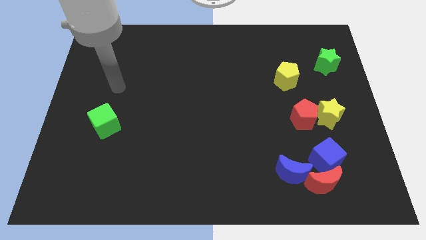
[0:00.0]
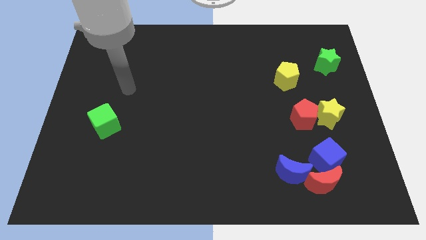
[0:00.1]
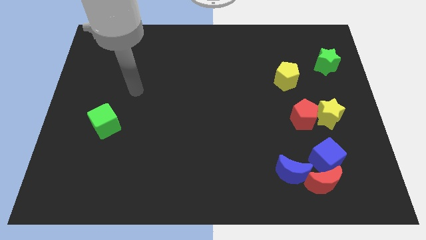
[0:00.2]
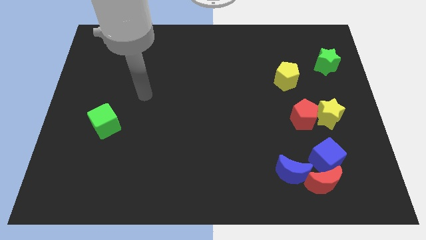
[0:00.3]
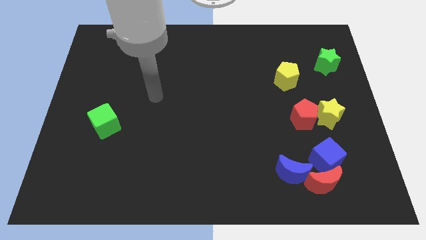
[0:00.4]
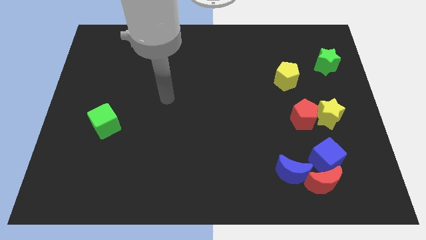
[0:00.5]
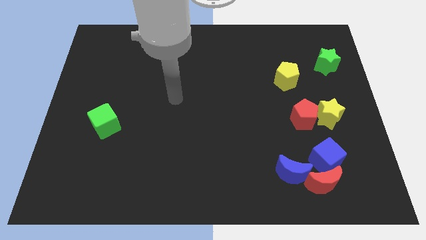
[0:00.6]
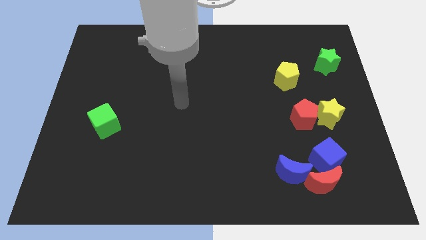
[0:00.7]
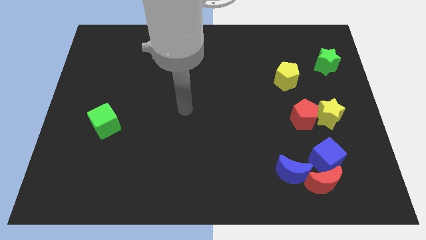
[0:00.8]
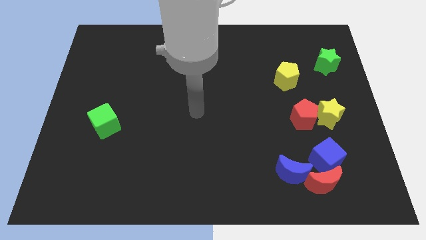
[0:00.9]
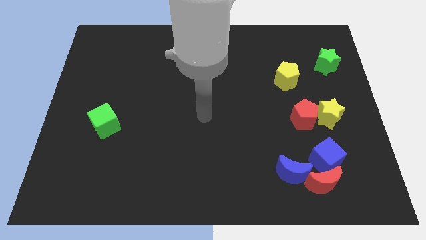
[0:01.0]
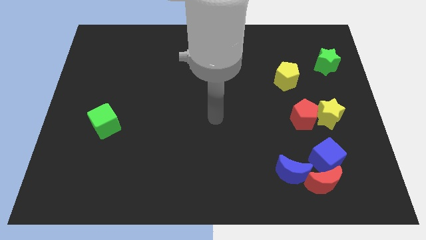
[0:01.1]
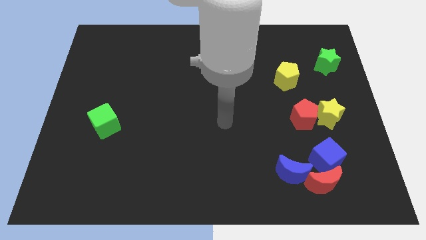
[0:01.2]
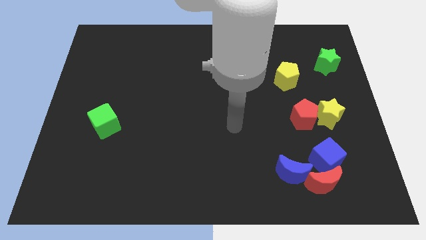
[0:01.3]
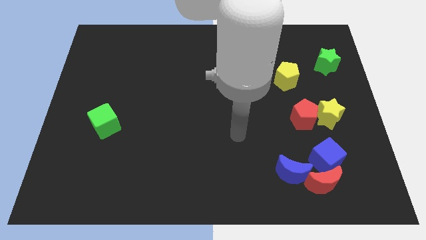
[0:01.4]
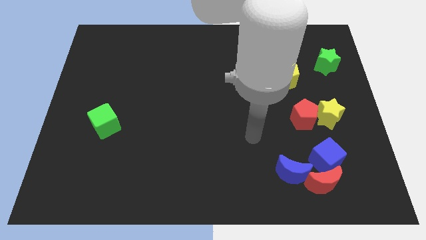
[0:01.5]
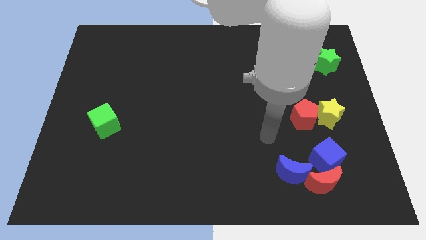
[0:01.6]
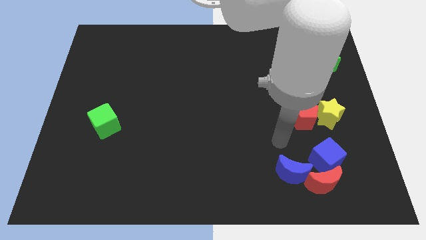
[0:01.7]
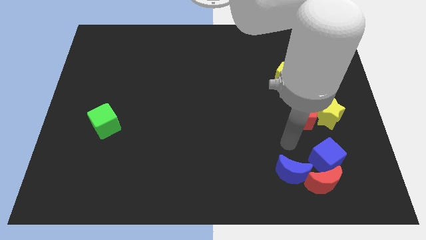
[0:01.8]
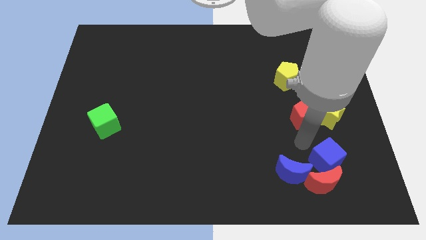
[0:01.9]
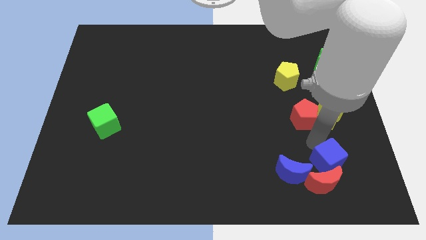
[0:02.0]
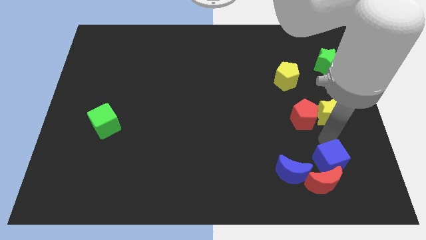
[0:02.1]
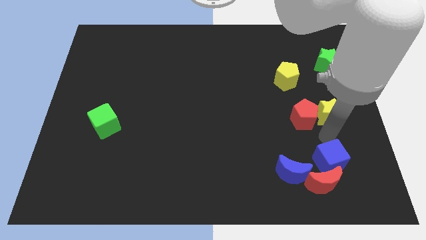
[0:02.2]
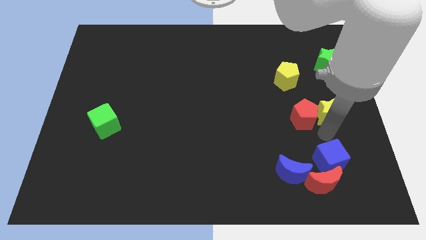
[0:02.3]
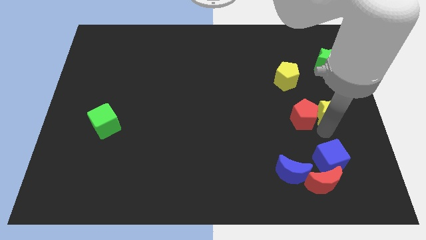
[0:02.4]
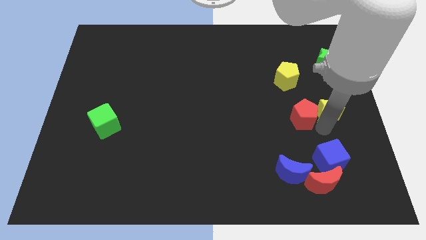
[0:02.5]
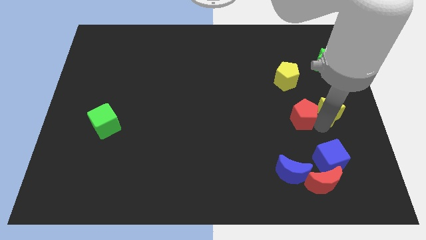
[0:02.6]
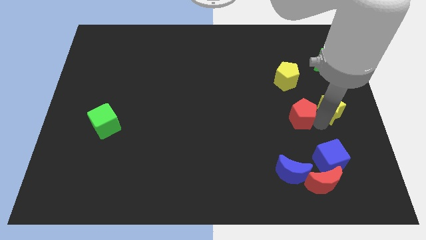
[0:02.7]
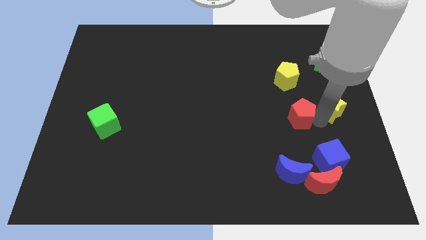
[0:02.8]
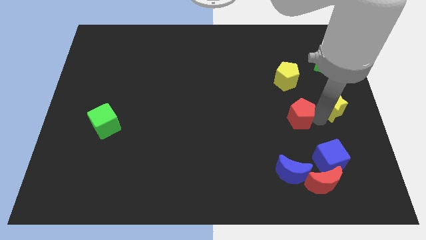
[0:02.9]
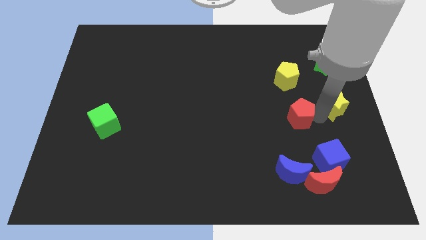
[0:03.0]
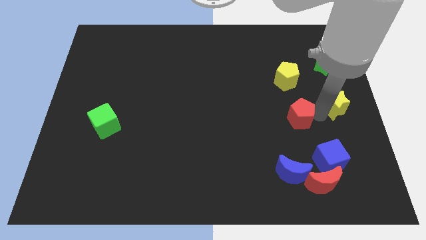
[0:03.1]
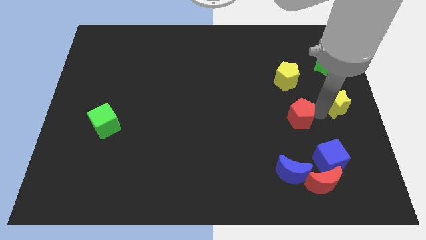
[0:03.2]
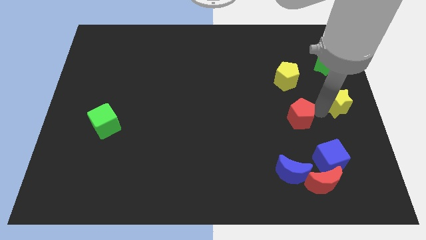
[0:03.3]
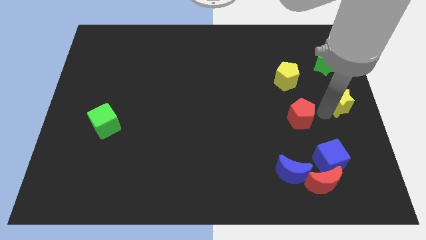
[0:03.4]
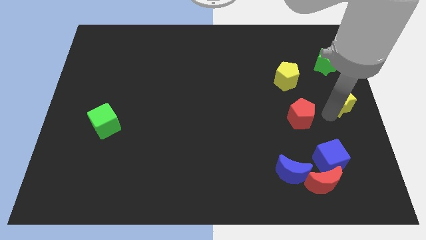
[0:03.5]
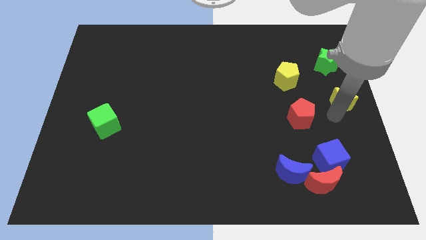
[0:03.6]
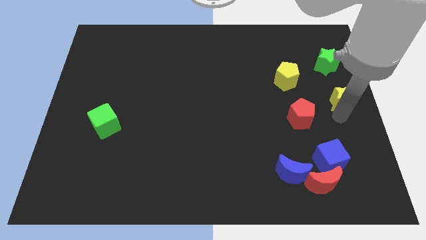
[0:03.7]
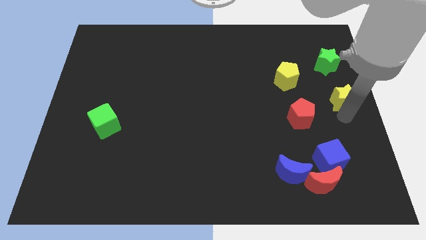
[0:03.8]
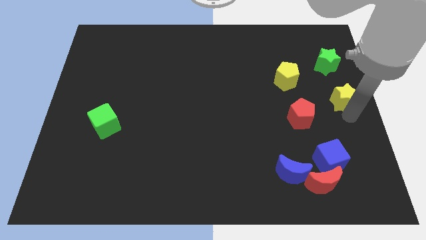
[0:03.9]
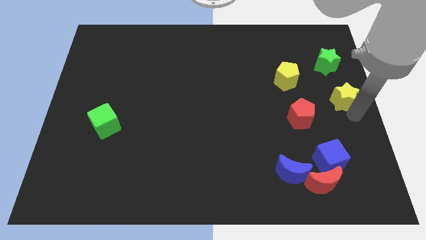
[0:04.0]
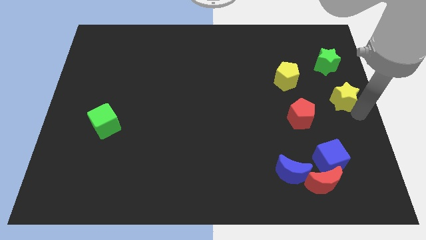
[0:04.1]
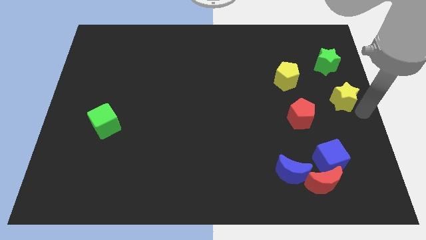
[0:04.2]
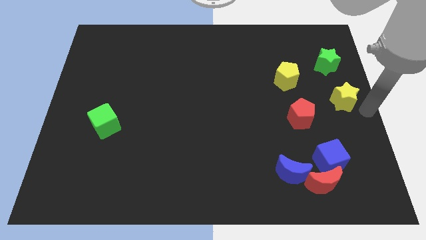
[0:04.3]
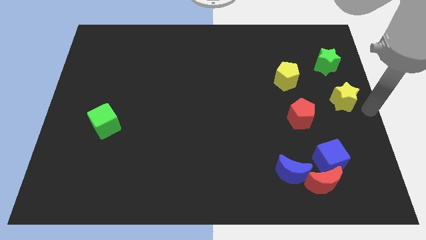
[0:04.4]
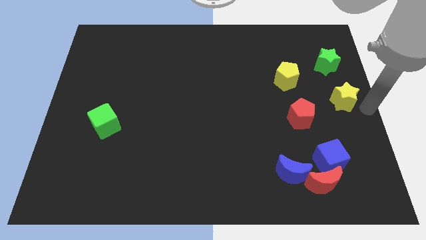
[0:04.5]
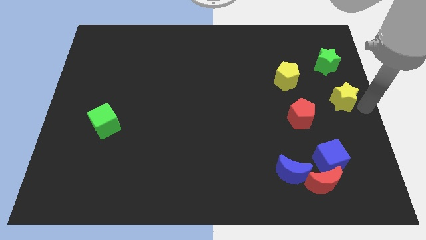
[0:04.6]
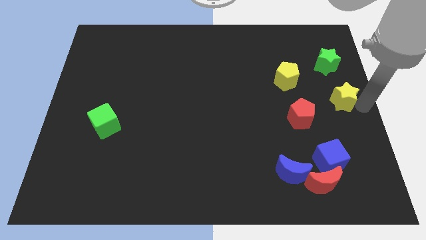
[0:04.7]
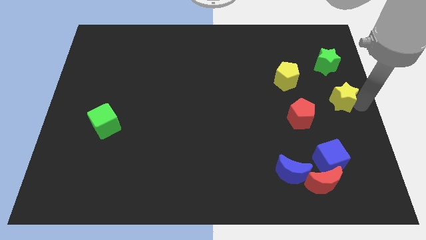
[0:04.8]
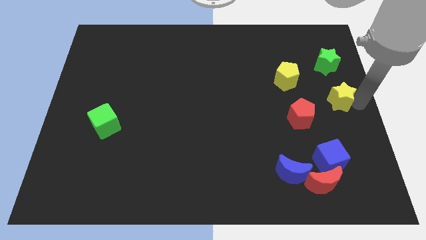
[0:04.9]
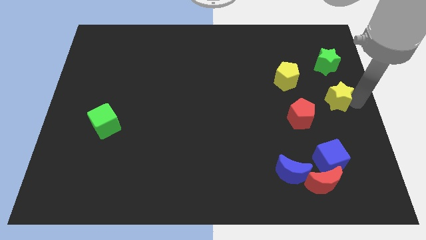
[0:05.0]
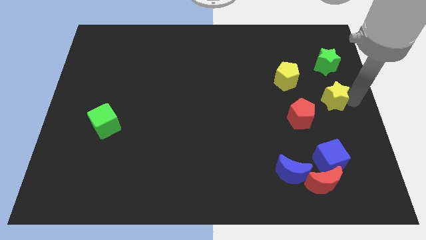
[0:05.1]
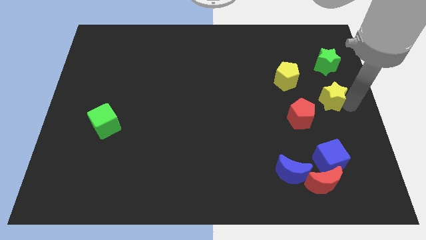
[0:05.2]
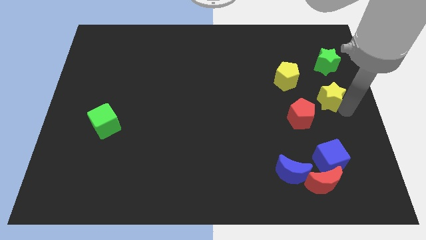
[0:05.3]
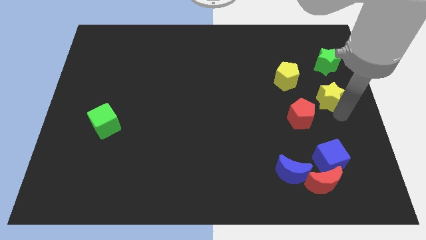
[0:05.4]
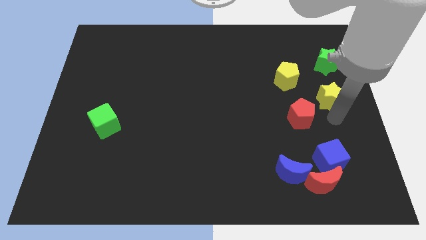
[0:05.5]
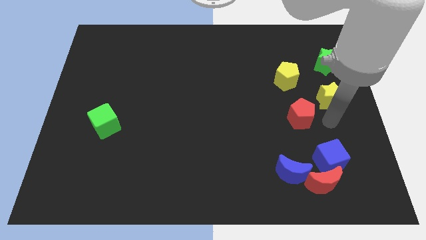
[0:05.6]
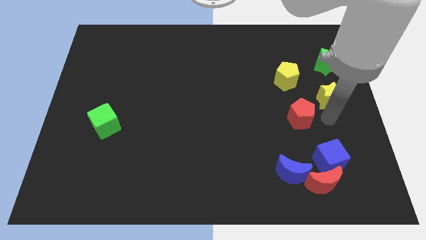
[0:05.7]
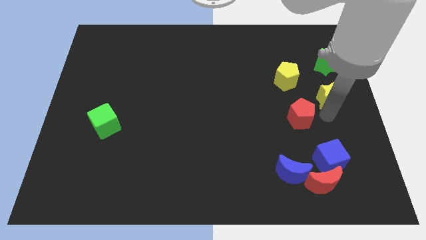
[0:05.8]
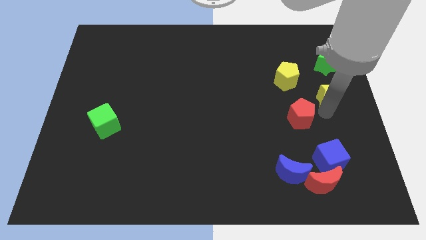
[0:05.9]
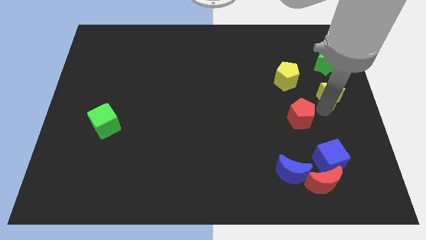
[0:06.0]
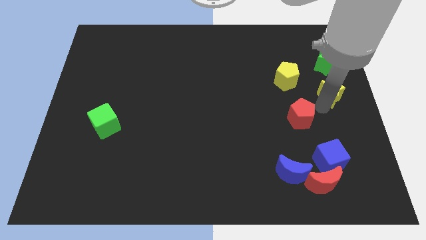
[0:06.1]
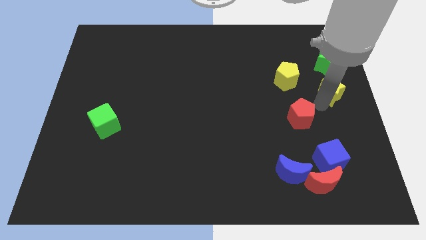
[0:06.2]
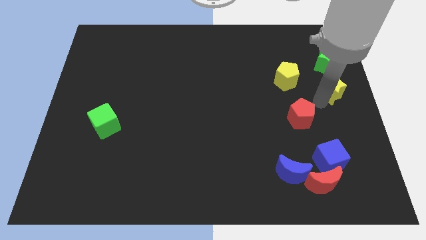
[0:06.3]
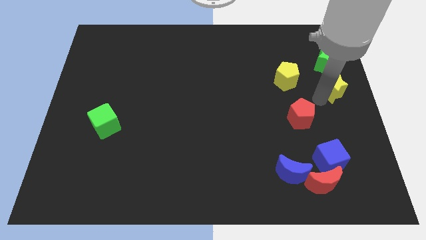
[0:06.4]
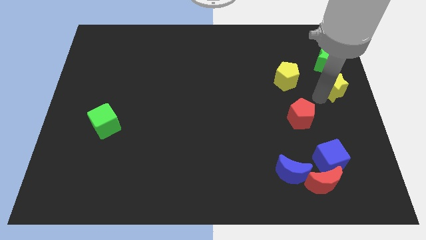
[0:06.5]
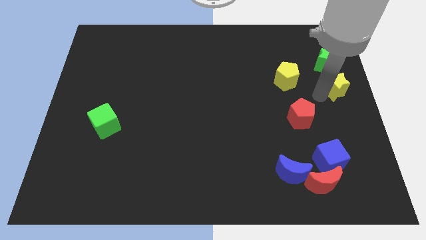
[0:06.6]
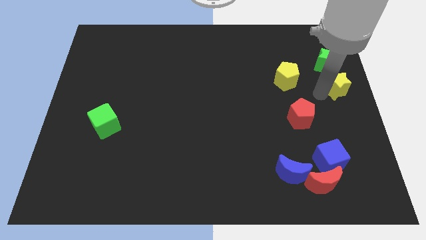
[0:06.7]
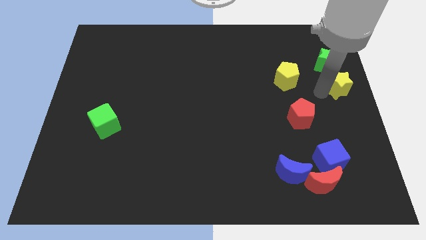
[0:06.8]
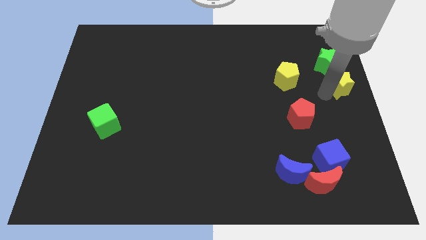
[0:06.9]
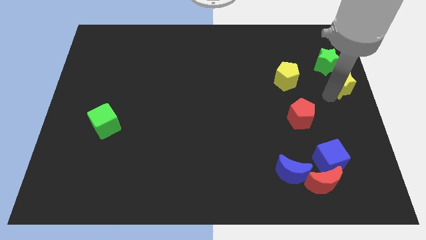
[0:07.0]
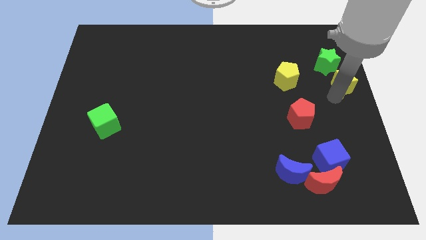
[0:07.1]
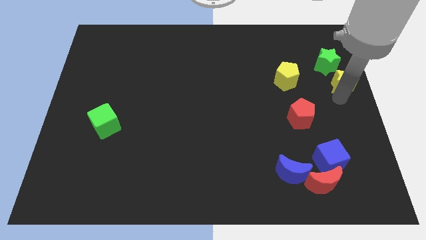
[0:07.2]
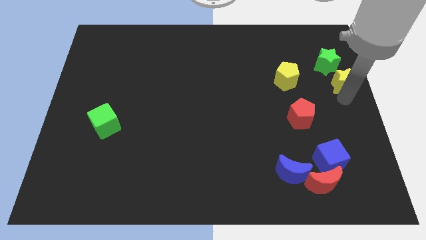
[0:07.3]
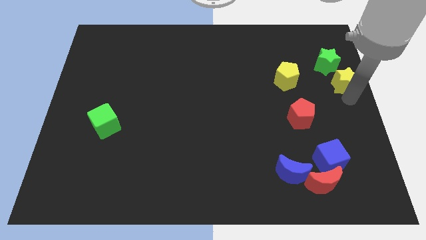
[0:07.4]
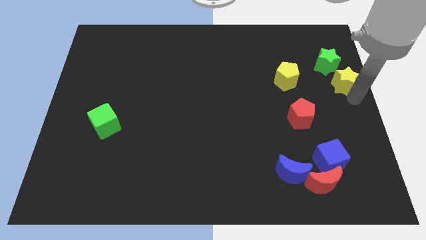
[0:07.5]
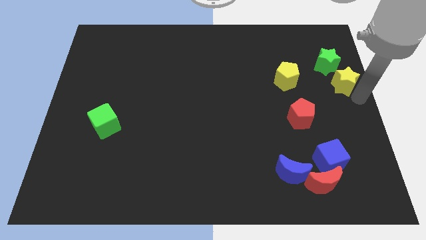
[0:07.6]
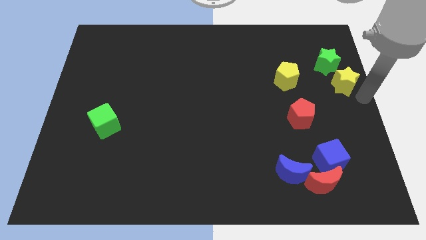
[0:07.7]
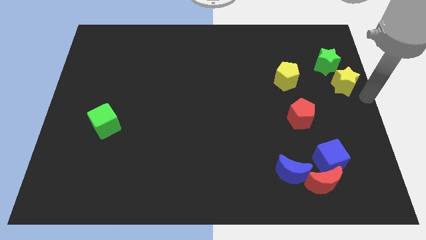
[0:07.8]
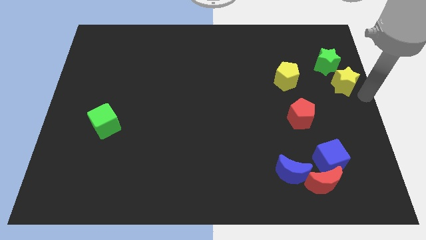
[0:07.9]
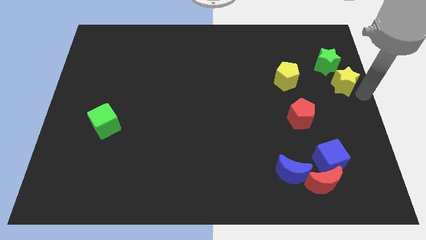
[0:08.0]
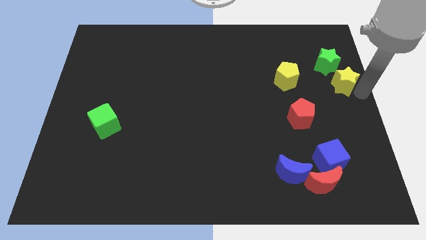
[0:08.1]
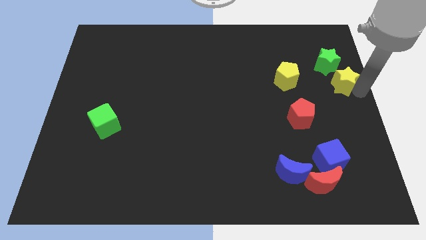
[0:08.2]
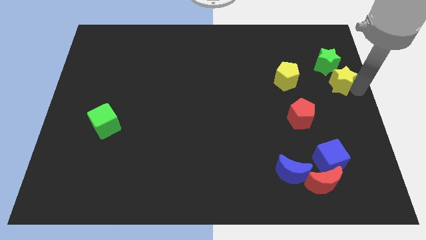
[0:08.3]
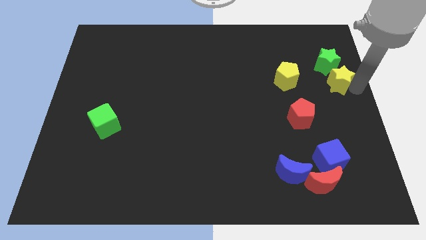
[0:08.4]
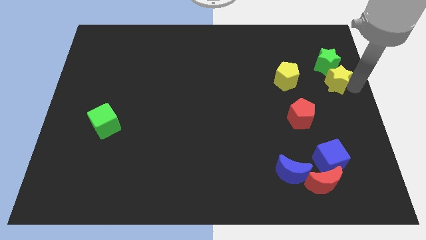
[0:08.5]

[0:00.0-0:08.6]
move the yellow star to the green star
